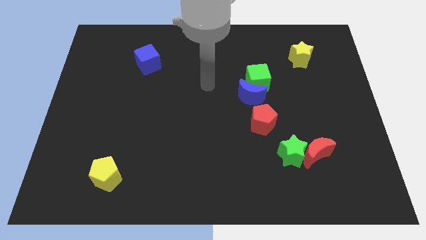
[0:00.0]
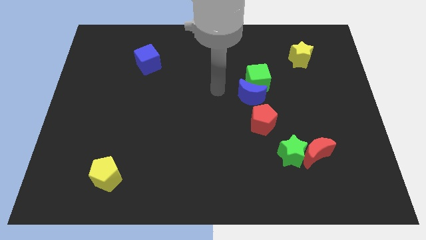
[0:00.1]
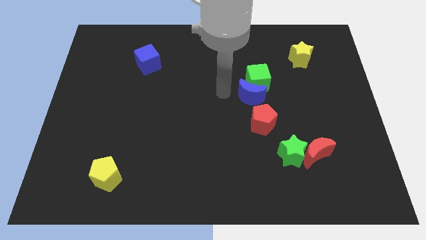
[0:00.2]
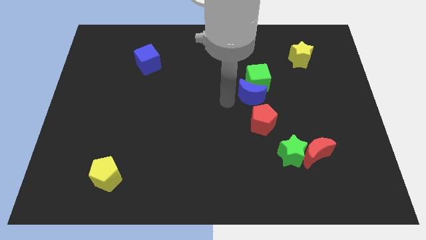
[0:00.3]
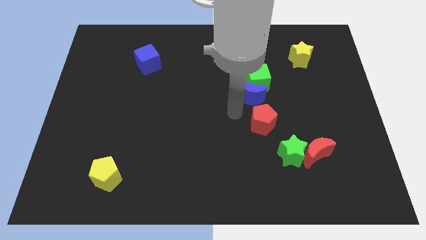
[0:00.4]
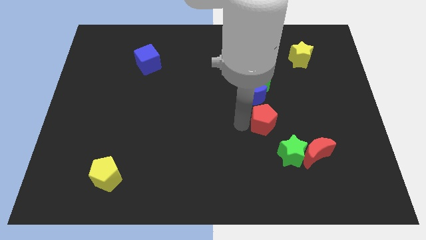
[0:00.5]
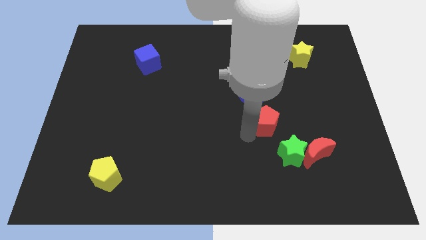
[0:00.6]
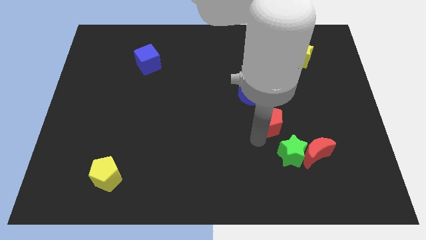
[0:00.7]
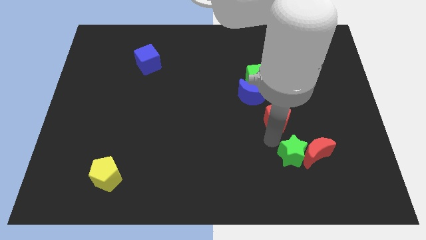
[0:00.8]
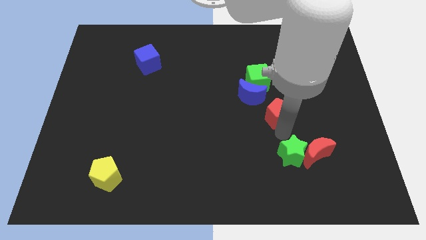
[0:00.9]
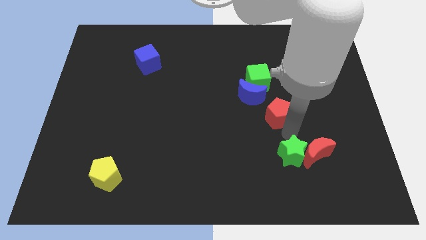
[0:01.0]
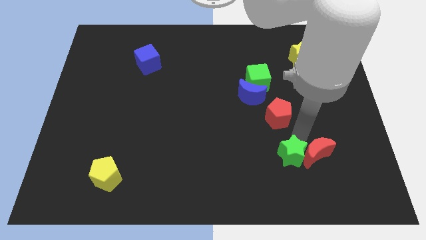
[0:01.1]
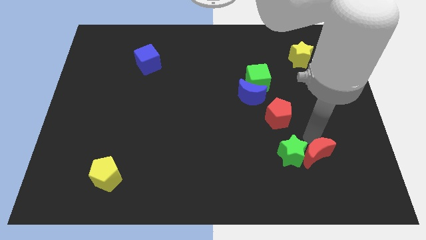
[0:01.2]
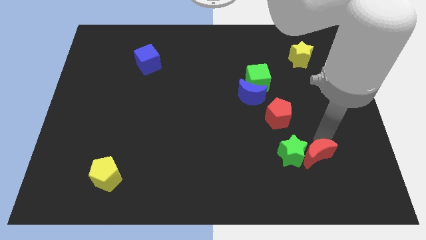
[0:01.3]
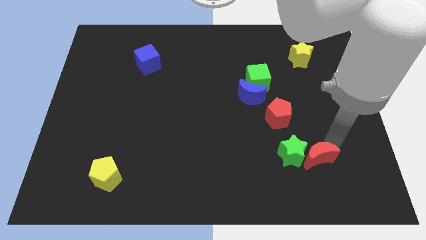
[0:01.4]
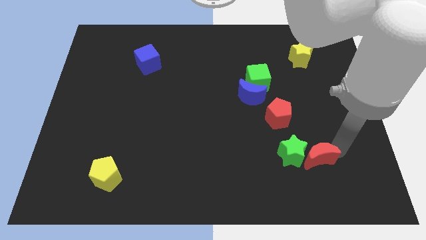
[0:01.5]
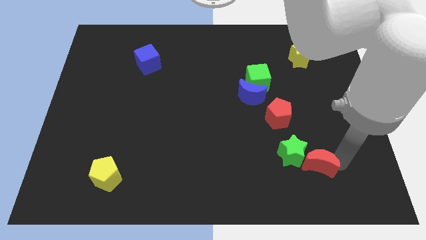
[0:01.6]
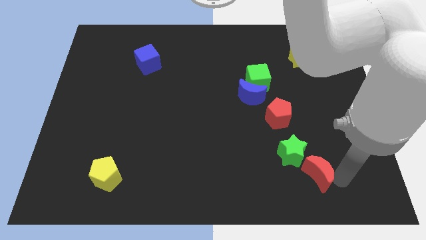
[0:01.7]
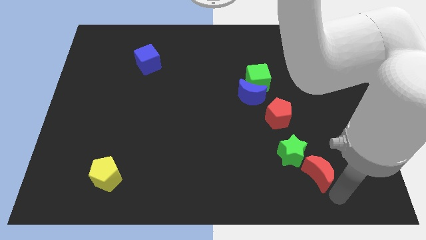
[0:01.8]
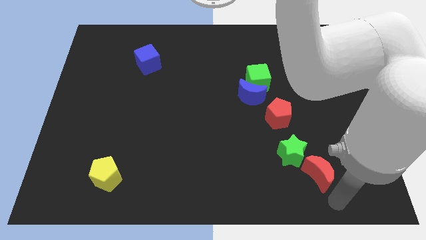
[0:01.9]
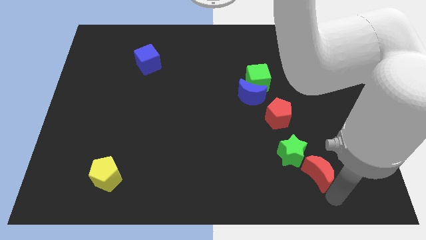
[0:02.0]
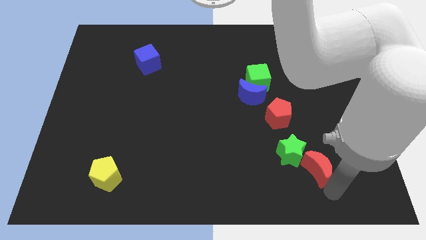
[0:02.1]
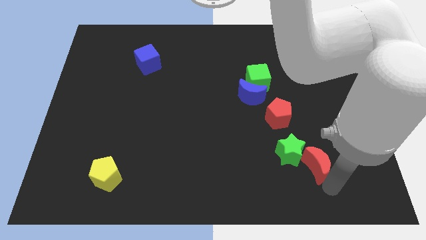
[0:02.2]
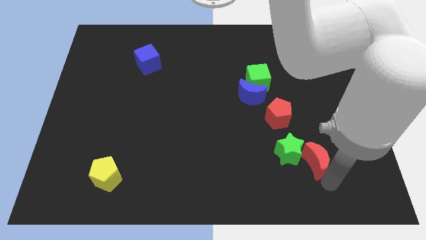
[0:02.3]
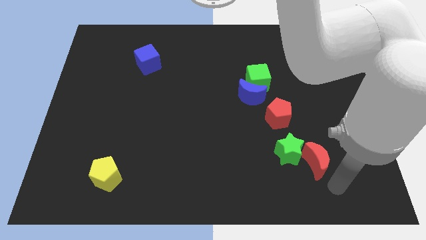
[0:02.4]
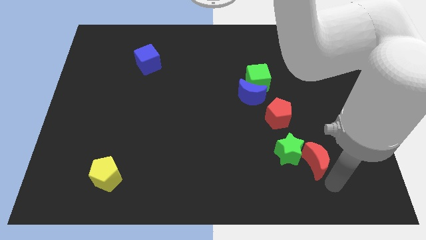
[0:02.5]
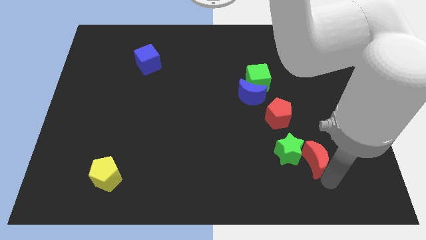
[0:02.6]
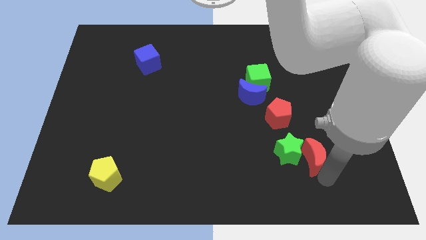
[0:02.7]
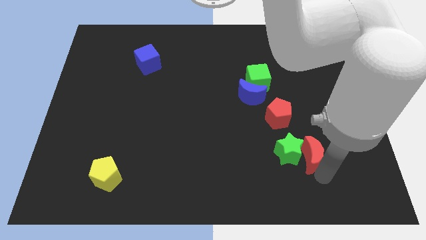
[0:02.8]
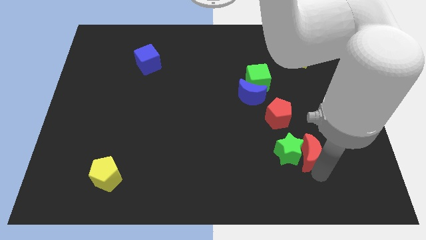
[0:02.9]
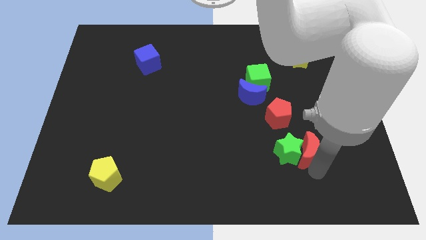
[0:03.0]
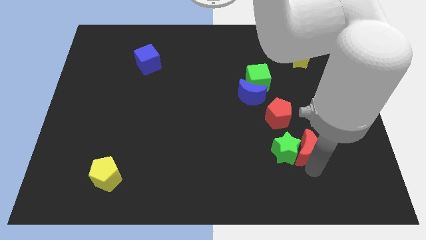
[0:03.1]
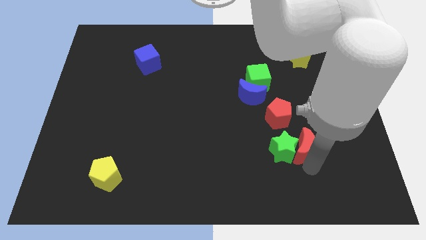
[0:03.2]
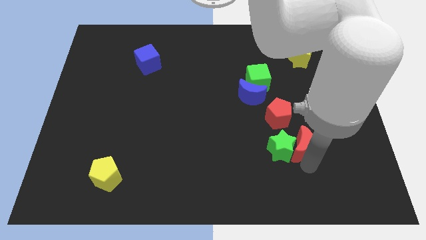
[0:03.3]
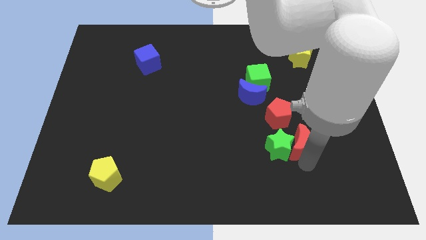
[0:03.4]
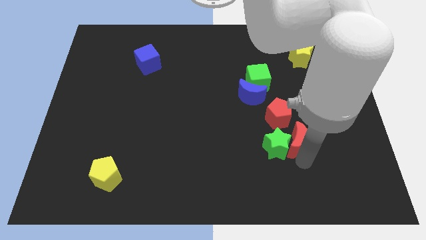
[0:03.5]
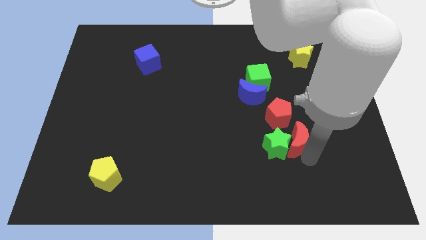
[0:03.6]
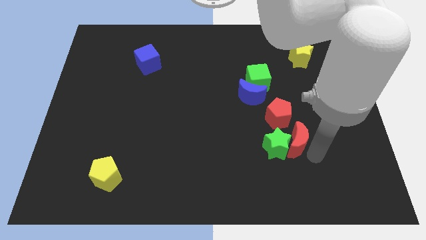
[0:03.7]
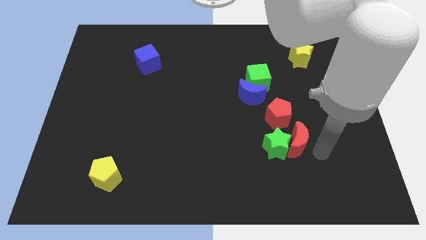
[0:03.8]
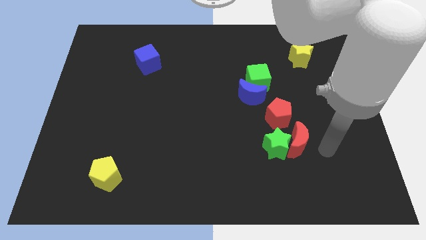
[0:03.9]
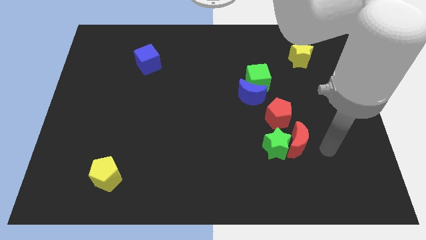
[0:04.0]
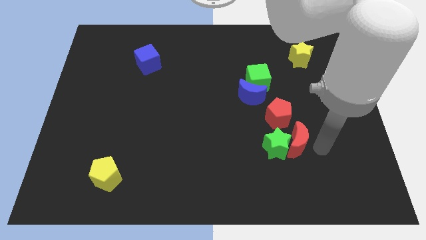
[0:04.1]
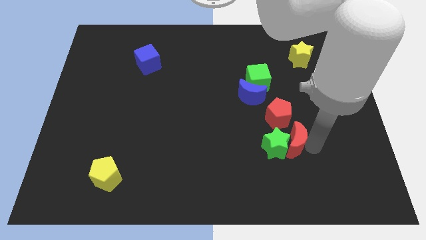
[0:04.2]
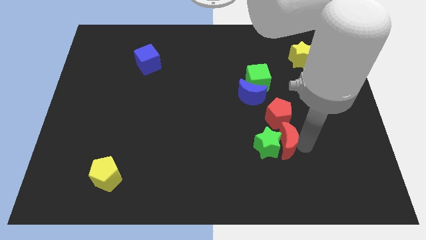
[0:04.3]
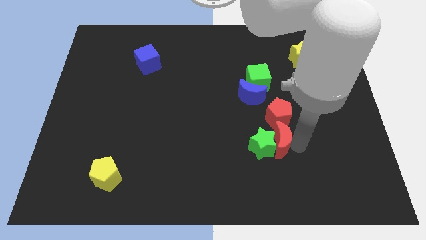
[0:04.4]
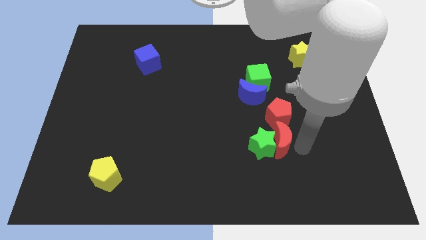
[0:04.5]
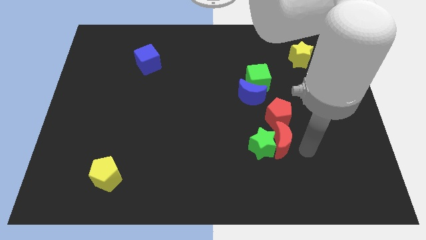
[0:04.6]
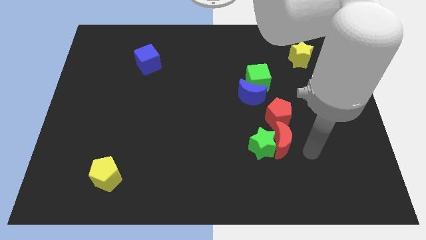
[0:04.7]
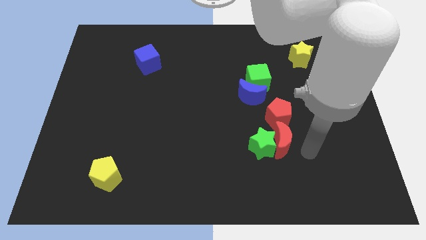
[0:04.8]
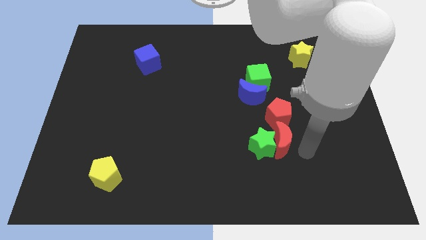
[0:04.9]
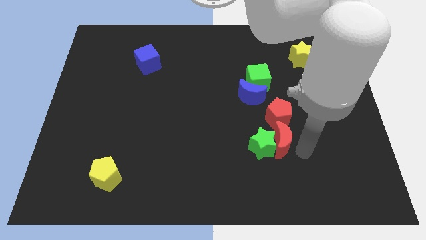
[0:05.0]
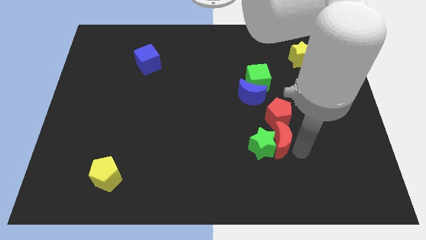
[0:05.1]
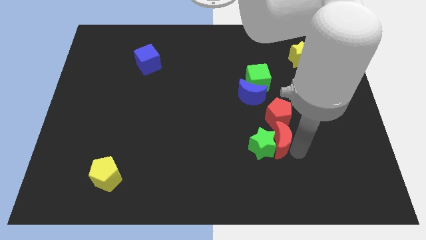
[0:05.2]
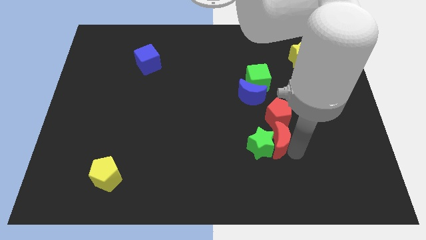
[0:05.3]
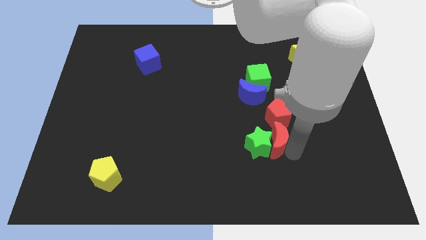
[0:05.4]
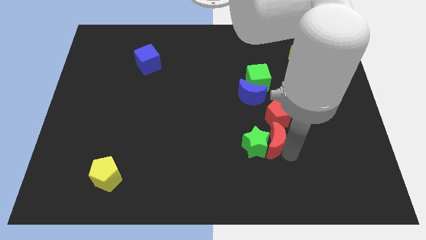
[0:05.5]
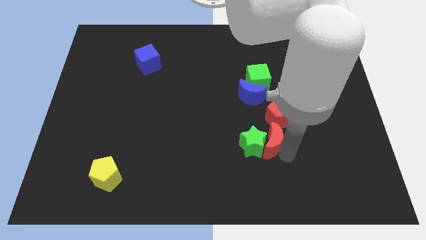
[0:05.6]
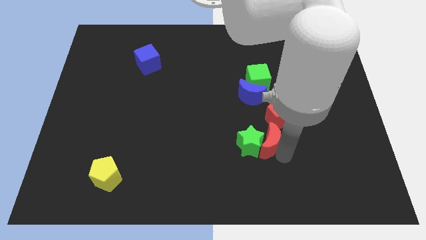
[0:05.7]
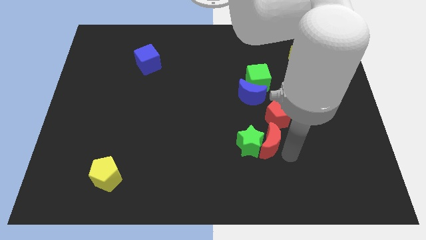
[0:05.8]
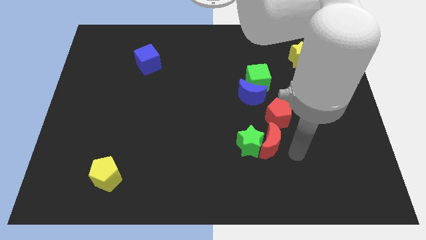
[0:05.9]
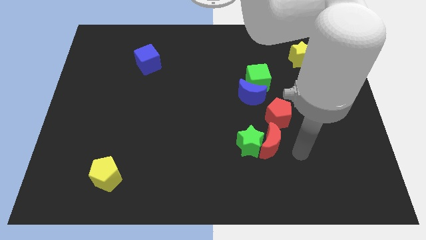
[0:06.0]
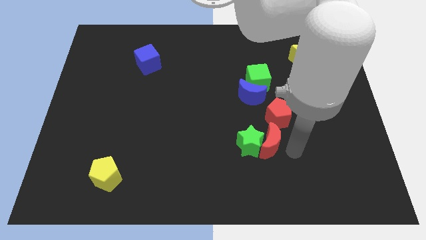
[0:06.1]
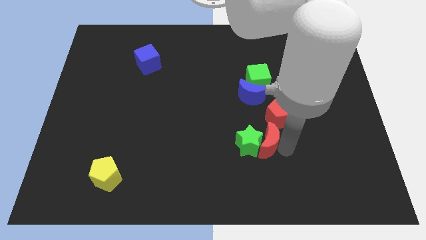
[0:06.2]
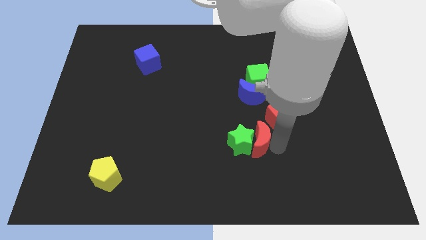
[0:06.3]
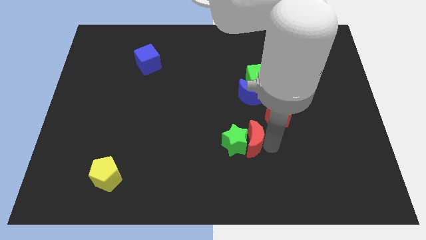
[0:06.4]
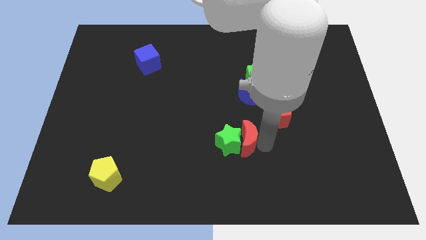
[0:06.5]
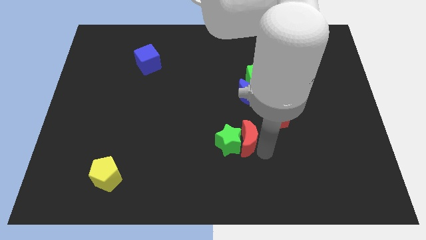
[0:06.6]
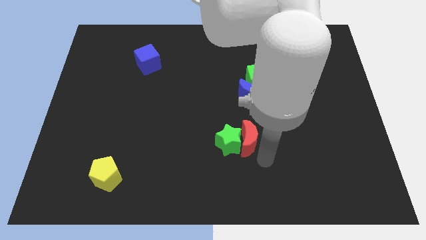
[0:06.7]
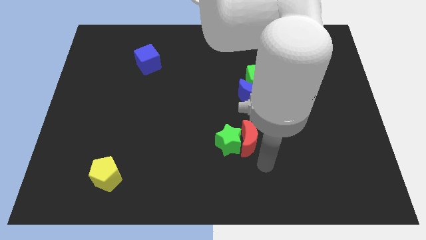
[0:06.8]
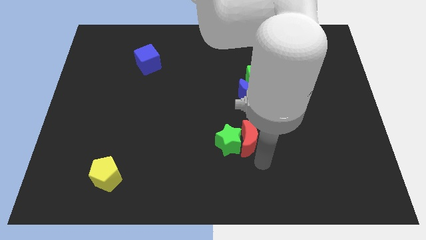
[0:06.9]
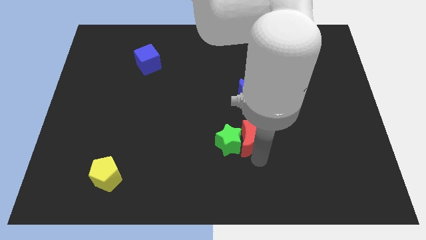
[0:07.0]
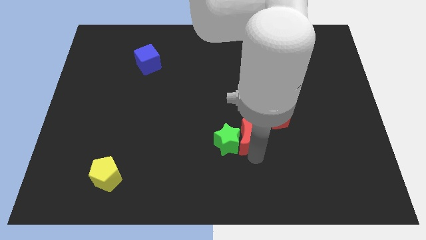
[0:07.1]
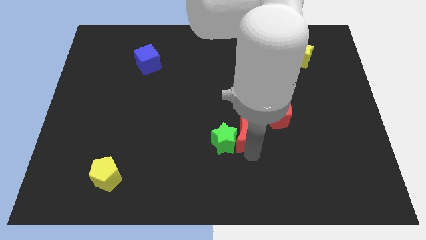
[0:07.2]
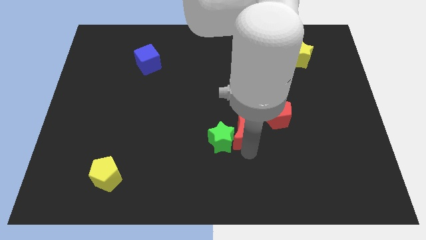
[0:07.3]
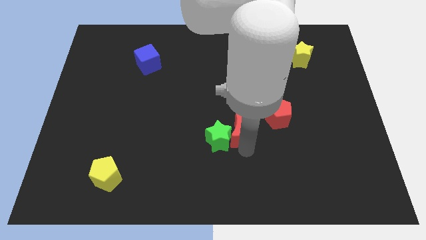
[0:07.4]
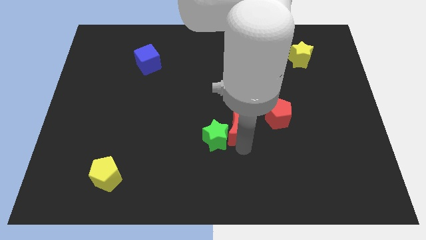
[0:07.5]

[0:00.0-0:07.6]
slide the red moon diagonally down and to the left of the blue moon
